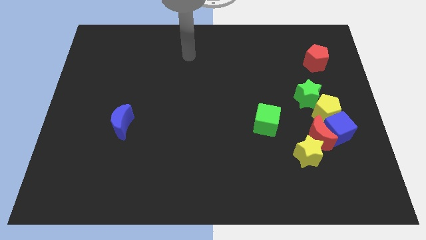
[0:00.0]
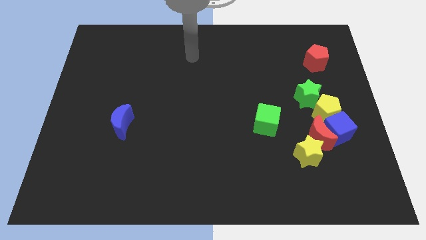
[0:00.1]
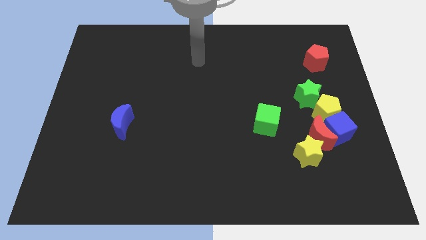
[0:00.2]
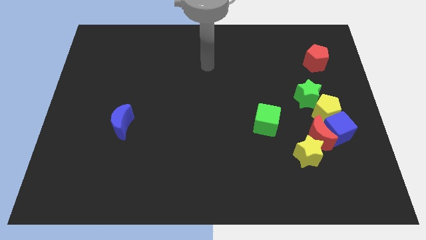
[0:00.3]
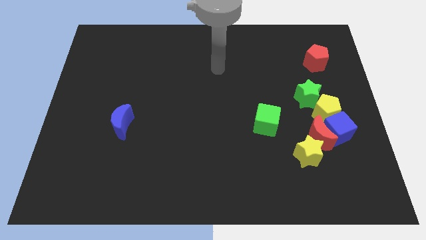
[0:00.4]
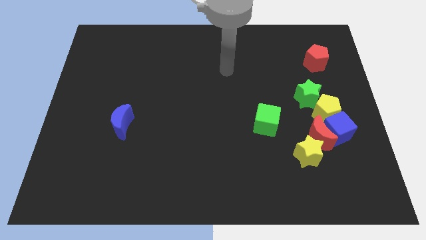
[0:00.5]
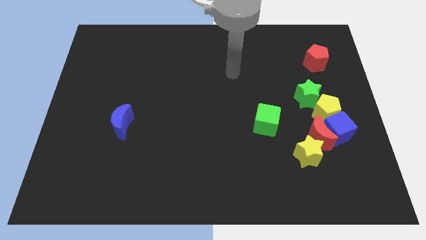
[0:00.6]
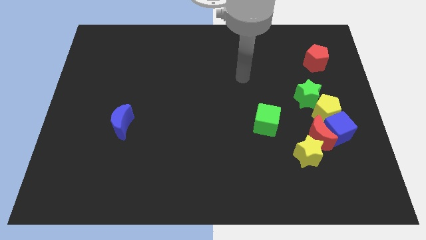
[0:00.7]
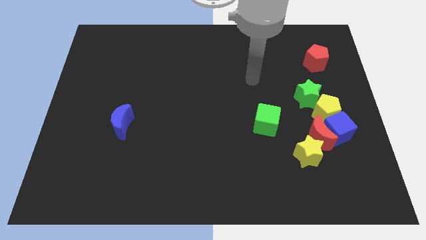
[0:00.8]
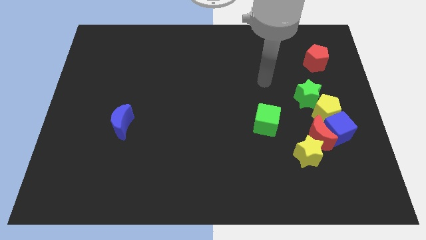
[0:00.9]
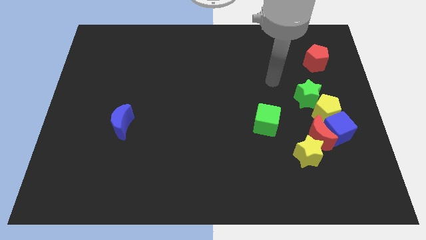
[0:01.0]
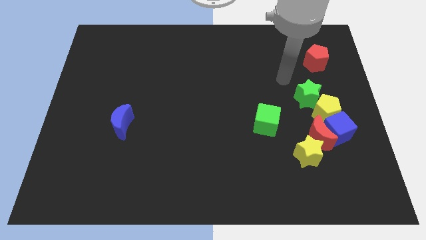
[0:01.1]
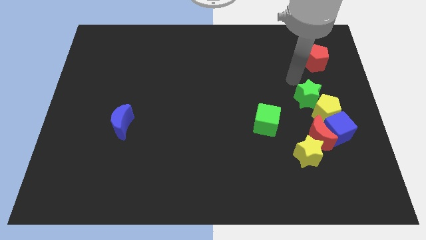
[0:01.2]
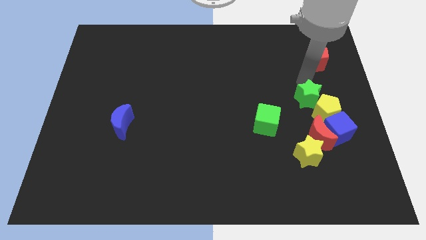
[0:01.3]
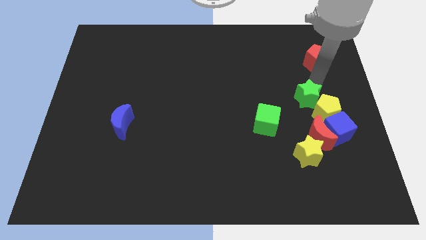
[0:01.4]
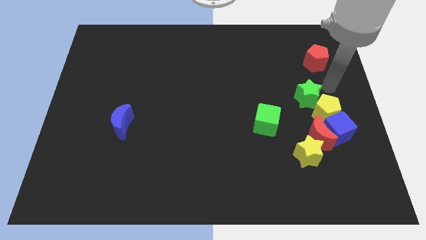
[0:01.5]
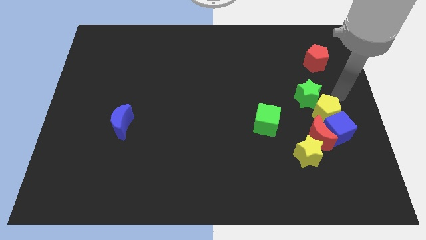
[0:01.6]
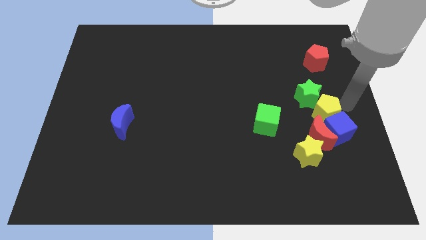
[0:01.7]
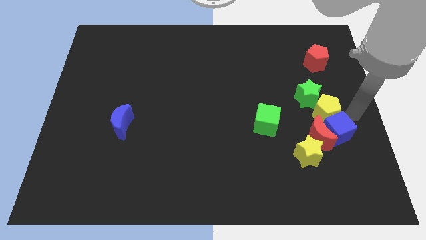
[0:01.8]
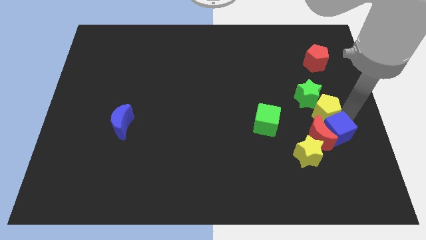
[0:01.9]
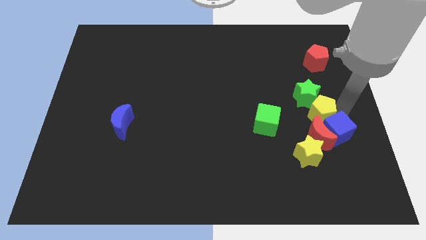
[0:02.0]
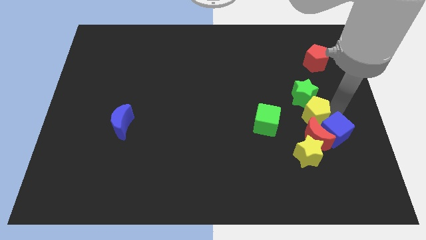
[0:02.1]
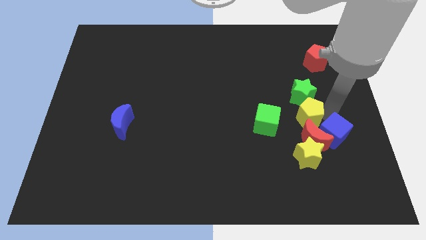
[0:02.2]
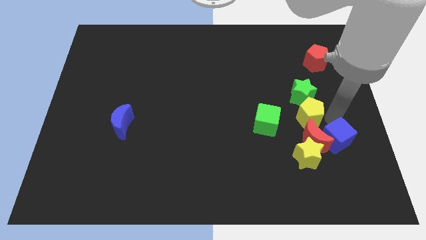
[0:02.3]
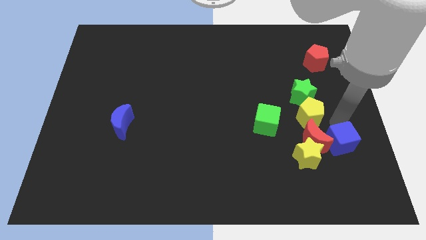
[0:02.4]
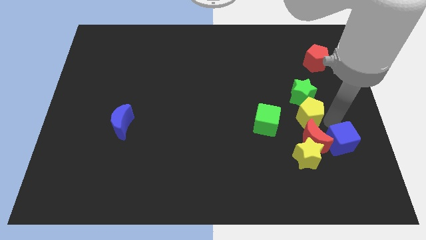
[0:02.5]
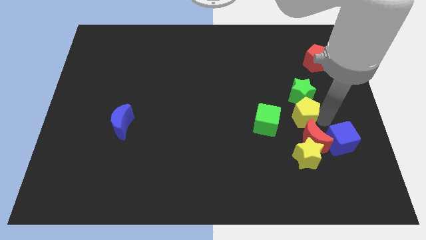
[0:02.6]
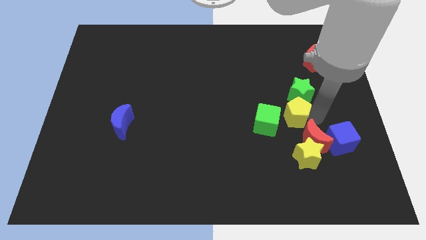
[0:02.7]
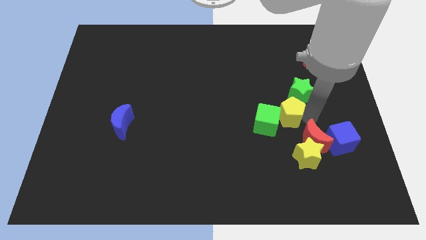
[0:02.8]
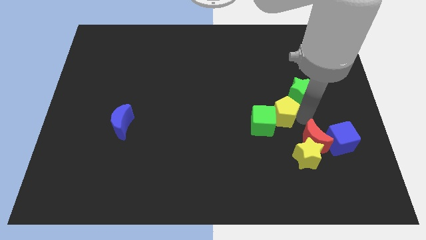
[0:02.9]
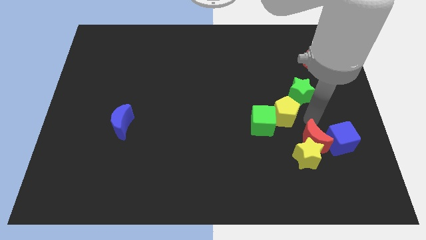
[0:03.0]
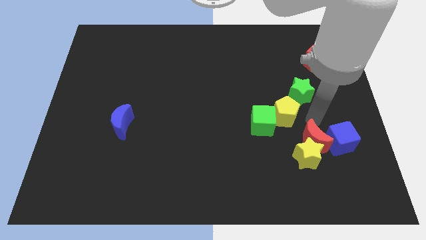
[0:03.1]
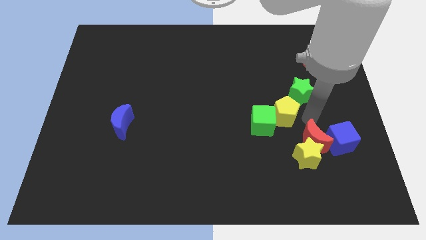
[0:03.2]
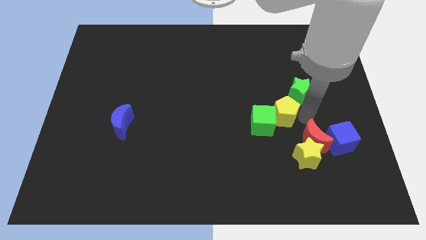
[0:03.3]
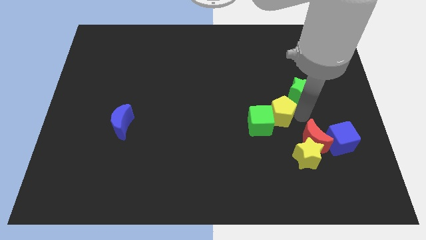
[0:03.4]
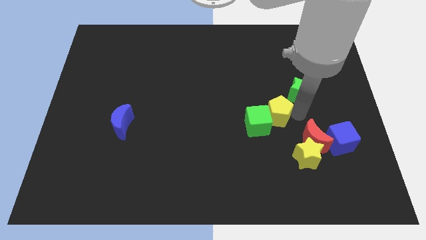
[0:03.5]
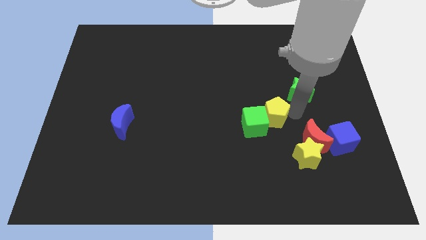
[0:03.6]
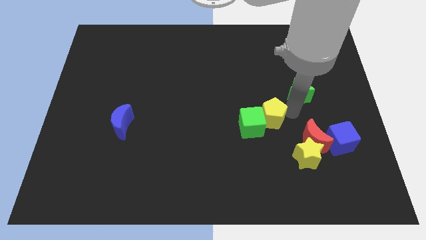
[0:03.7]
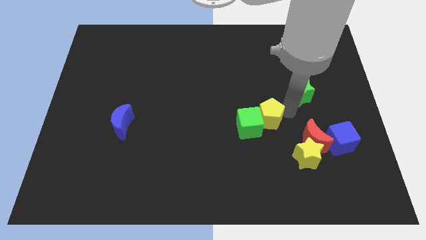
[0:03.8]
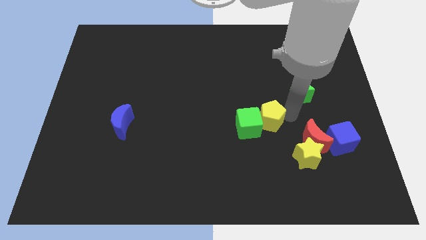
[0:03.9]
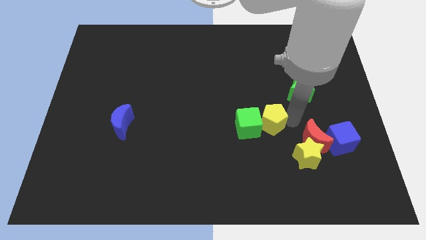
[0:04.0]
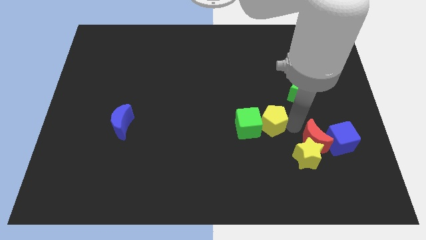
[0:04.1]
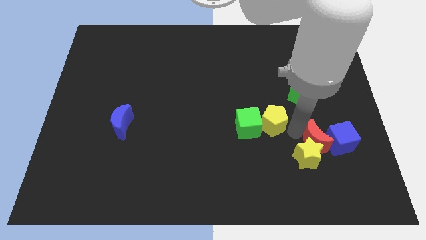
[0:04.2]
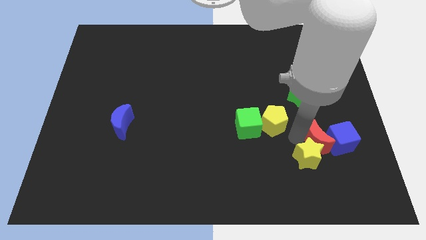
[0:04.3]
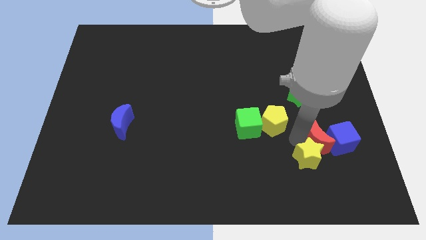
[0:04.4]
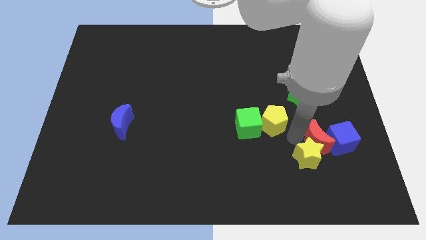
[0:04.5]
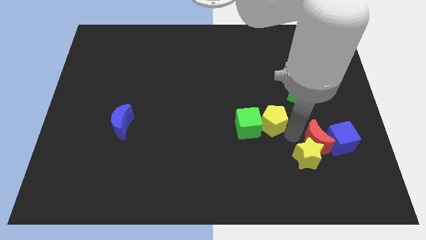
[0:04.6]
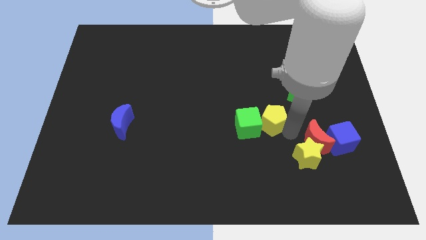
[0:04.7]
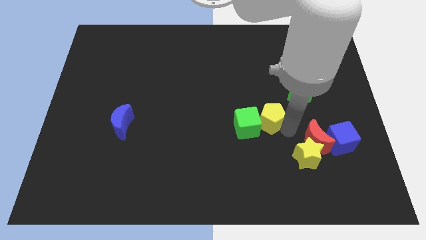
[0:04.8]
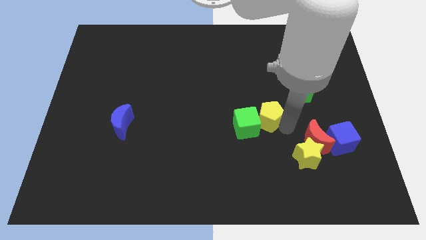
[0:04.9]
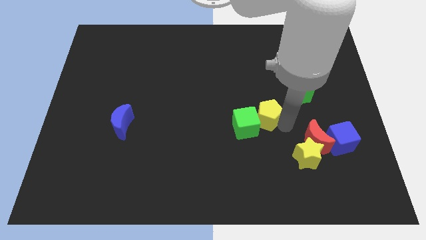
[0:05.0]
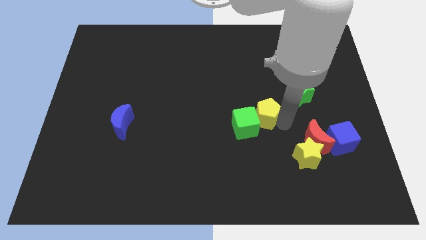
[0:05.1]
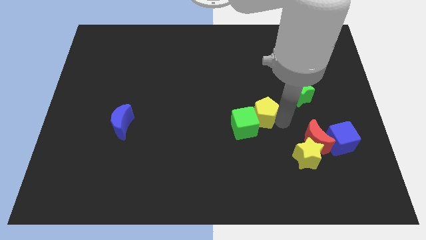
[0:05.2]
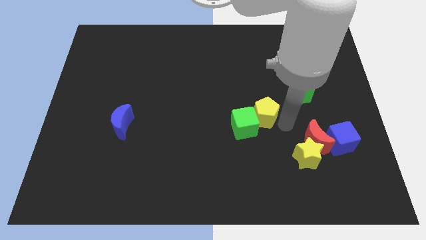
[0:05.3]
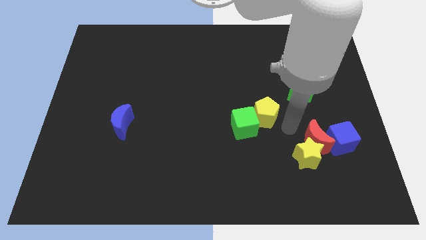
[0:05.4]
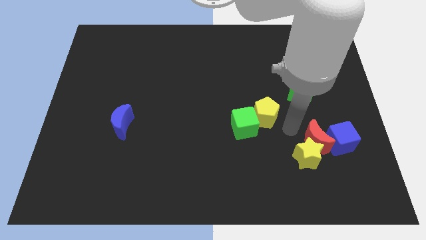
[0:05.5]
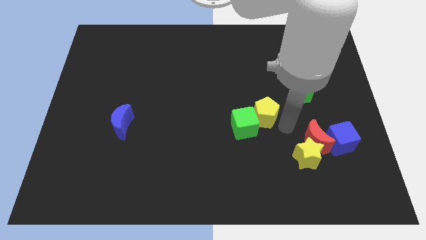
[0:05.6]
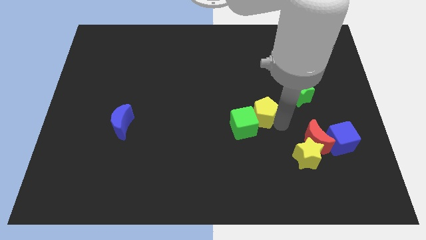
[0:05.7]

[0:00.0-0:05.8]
push the yellow pentagon to the middle
